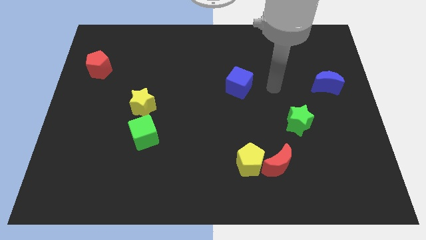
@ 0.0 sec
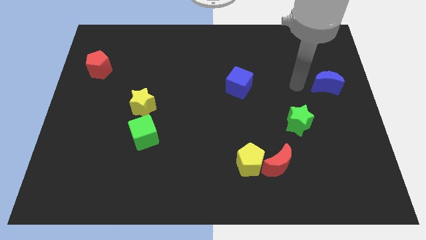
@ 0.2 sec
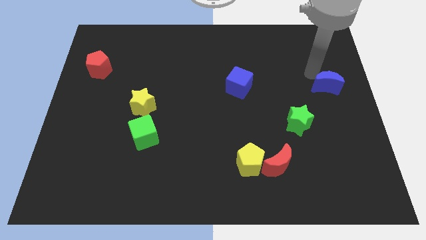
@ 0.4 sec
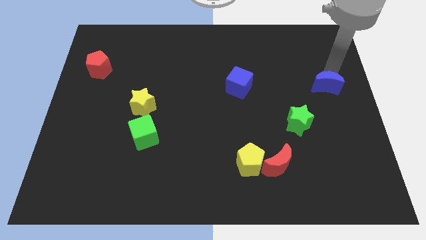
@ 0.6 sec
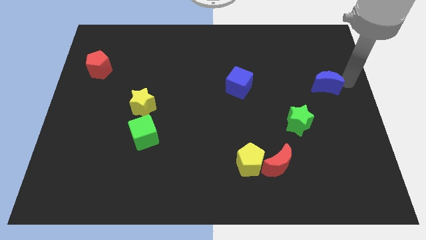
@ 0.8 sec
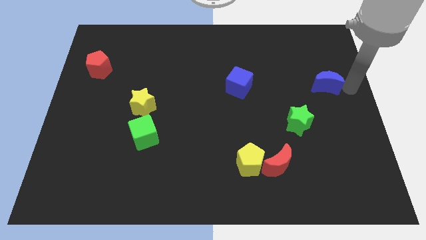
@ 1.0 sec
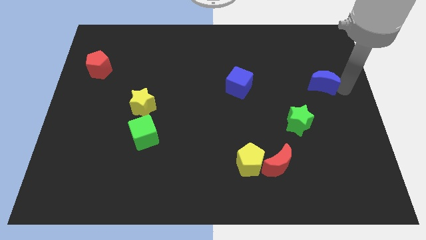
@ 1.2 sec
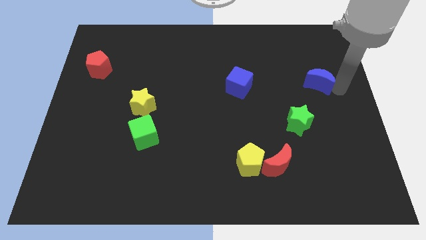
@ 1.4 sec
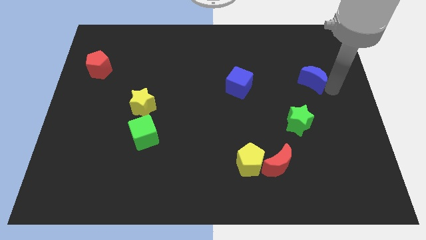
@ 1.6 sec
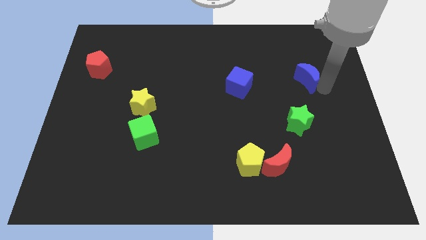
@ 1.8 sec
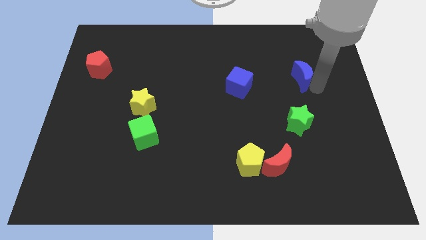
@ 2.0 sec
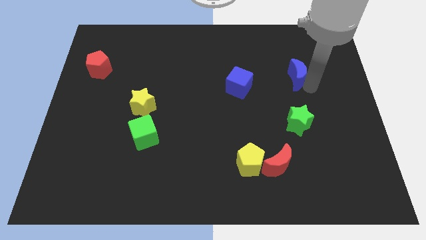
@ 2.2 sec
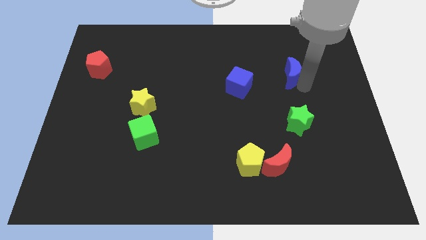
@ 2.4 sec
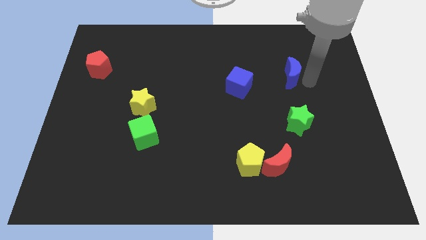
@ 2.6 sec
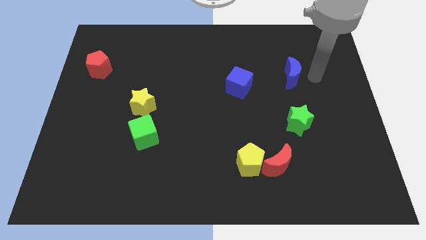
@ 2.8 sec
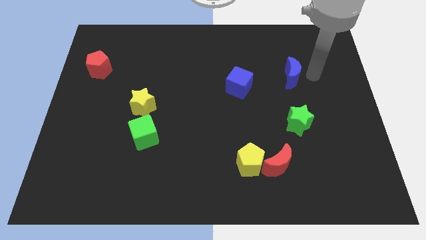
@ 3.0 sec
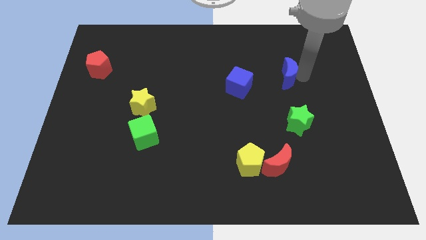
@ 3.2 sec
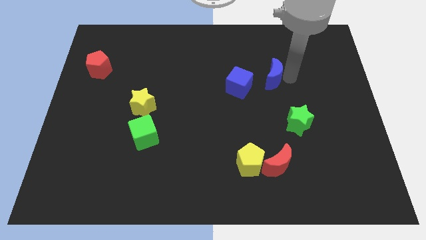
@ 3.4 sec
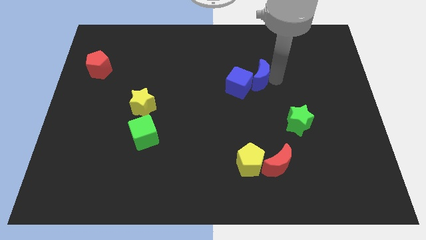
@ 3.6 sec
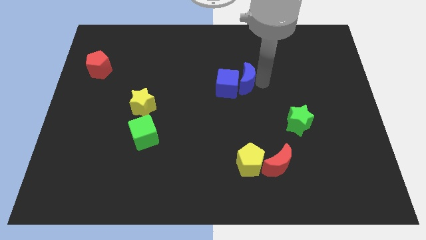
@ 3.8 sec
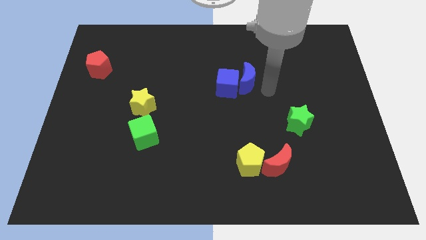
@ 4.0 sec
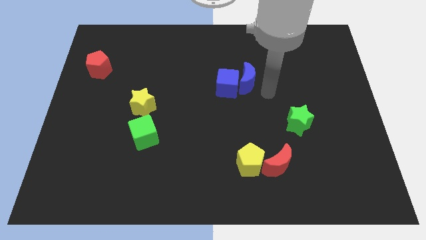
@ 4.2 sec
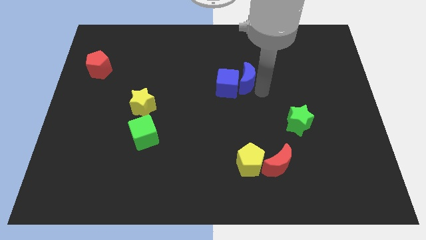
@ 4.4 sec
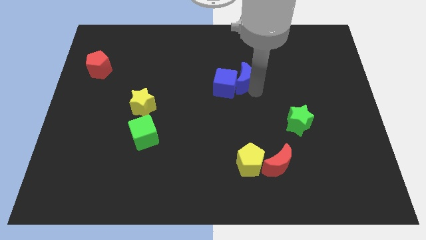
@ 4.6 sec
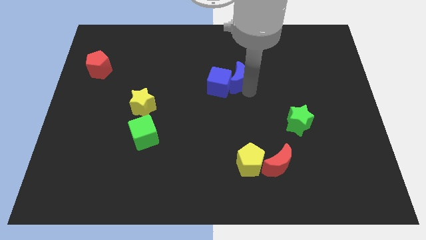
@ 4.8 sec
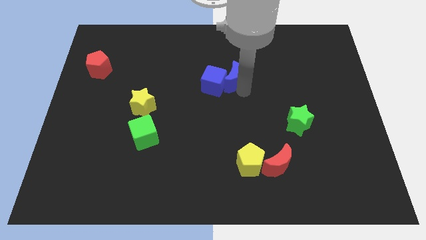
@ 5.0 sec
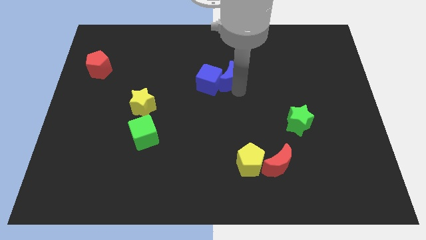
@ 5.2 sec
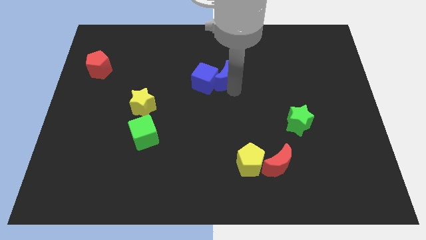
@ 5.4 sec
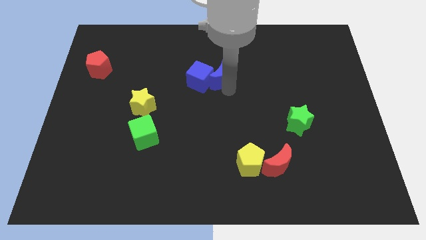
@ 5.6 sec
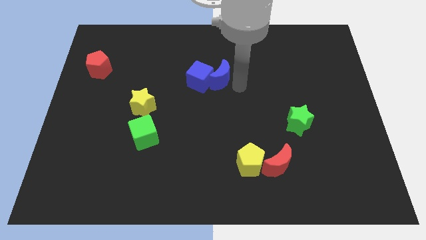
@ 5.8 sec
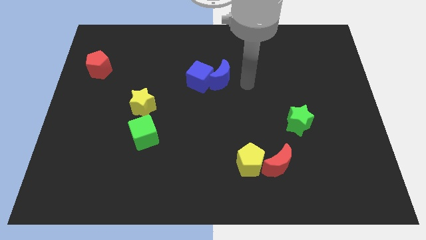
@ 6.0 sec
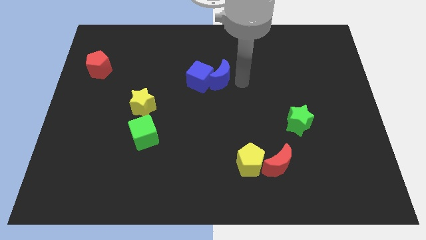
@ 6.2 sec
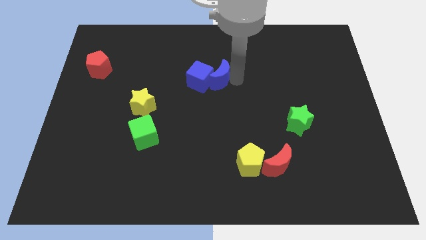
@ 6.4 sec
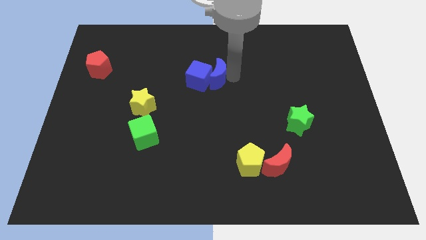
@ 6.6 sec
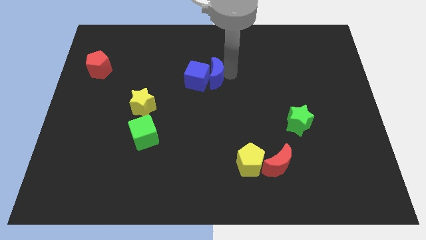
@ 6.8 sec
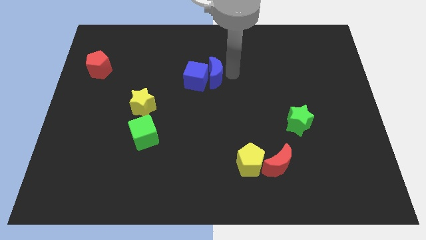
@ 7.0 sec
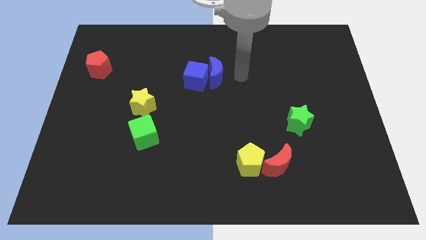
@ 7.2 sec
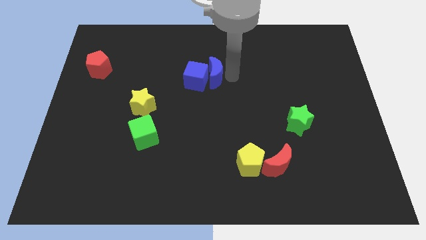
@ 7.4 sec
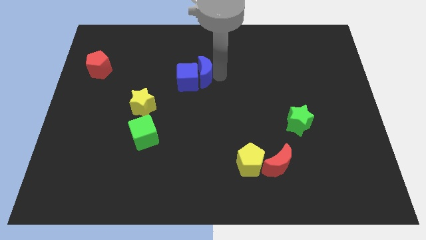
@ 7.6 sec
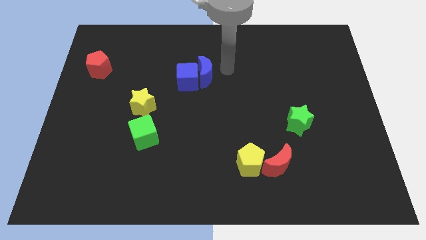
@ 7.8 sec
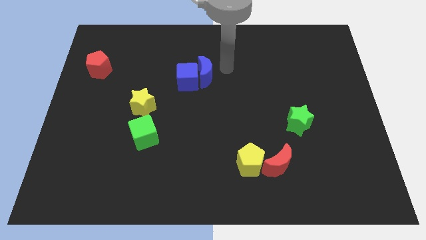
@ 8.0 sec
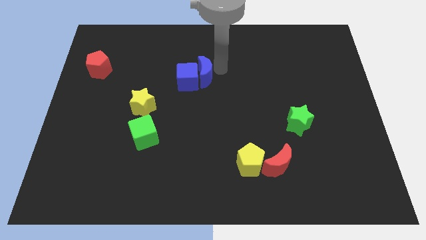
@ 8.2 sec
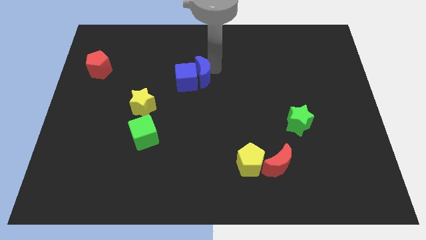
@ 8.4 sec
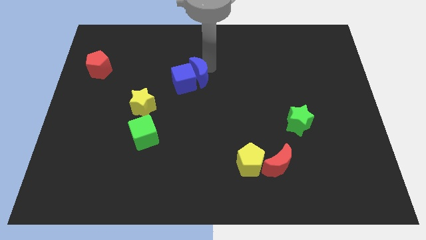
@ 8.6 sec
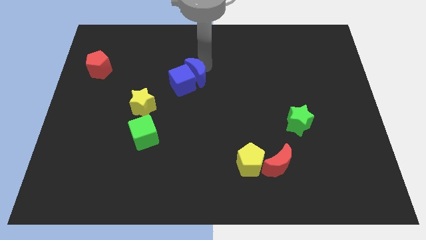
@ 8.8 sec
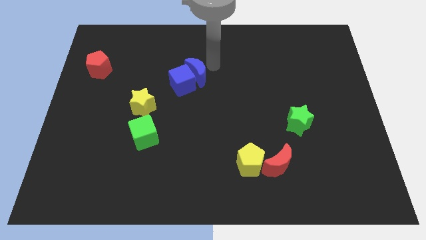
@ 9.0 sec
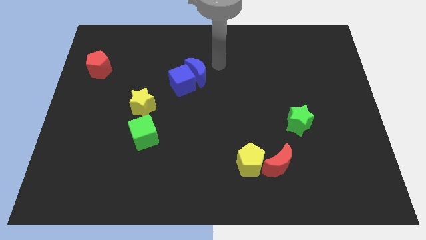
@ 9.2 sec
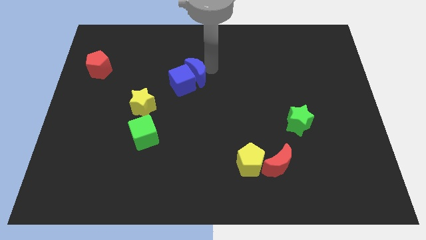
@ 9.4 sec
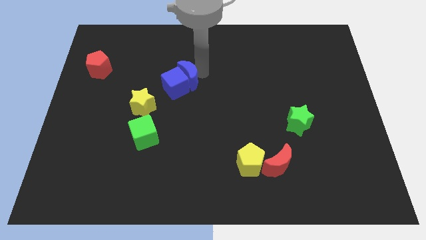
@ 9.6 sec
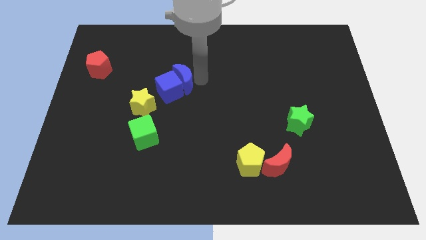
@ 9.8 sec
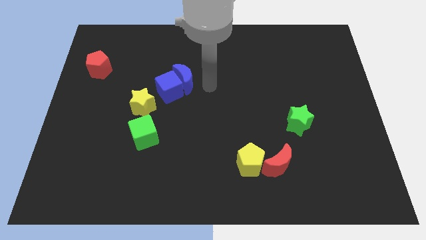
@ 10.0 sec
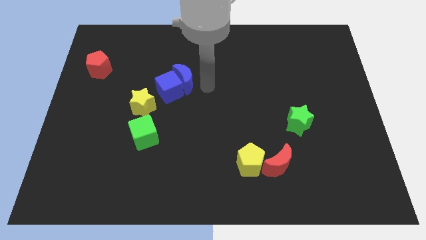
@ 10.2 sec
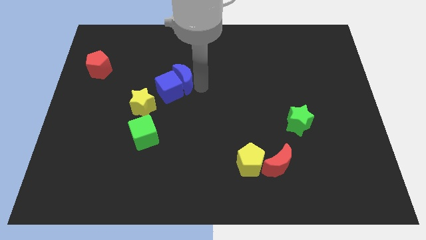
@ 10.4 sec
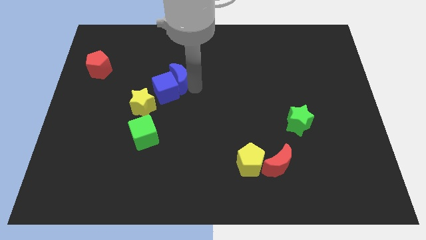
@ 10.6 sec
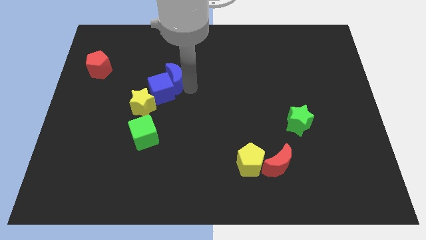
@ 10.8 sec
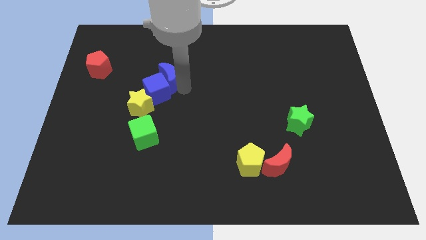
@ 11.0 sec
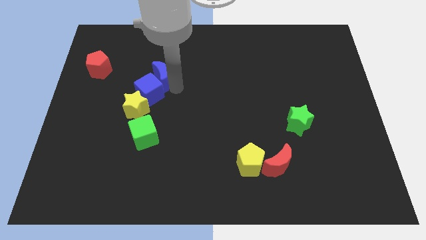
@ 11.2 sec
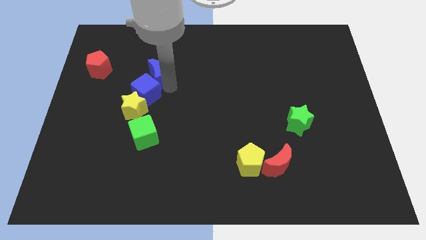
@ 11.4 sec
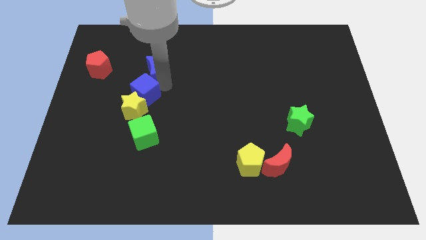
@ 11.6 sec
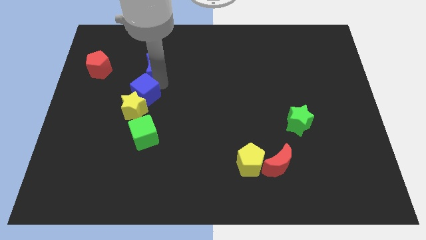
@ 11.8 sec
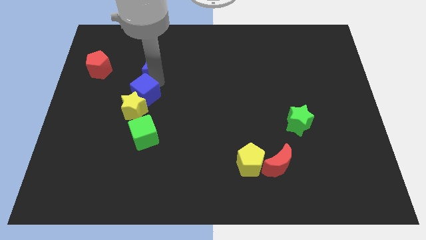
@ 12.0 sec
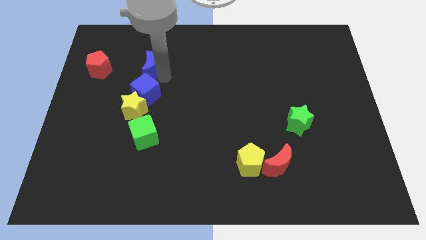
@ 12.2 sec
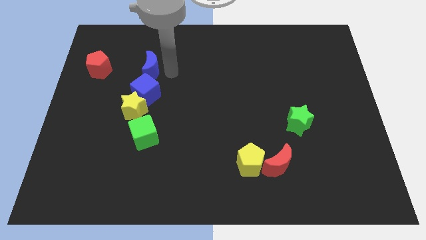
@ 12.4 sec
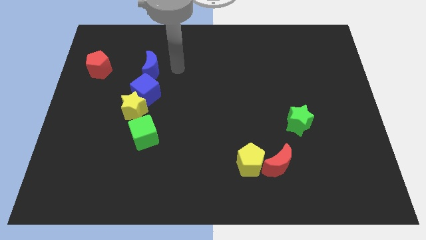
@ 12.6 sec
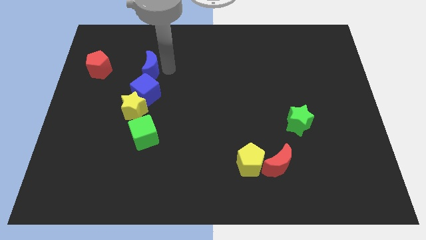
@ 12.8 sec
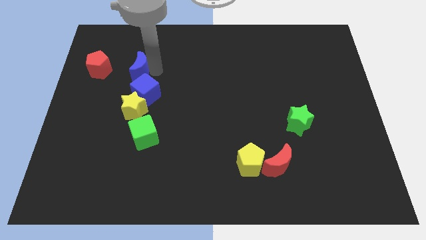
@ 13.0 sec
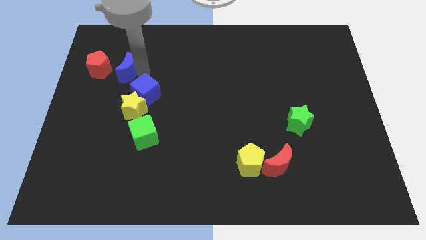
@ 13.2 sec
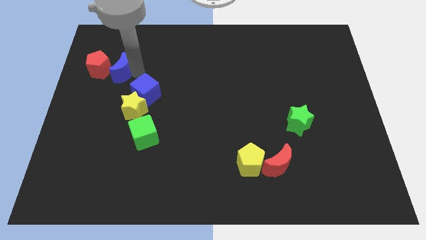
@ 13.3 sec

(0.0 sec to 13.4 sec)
move the blue moon next to the red pentagon
